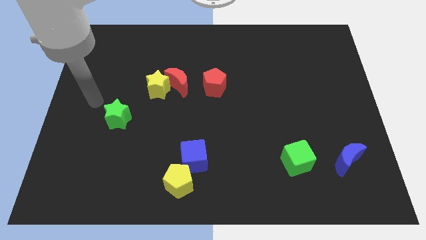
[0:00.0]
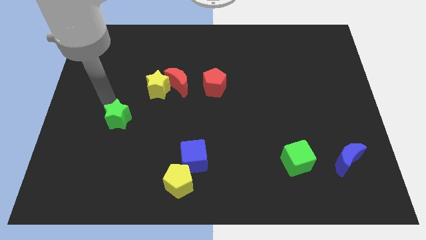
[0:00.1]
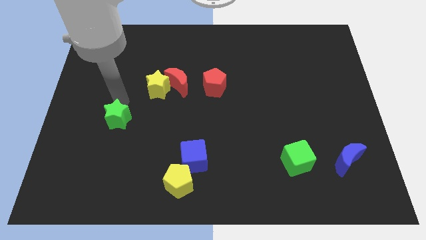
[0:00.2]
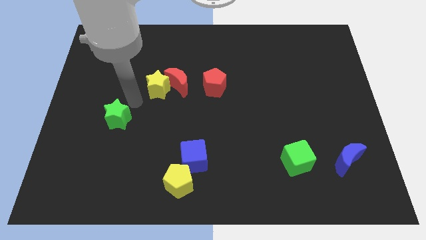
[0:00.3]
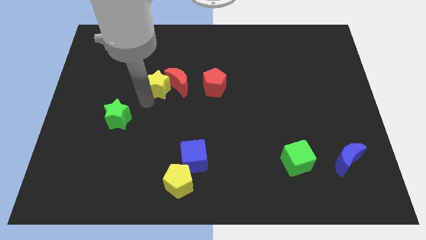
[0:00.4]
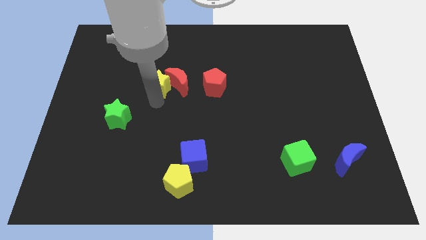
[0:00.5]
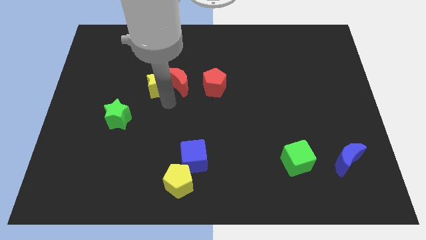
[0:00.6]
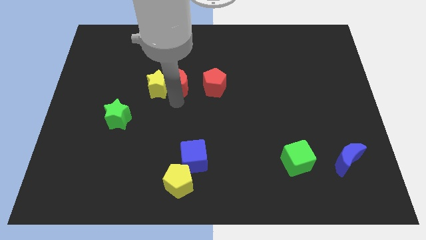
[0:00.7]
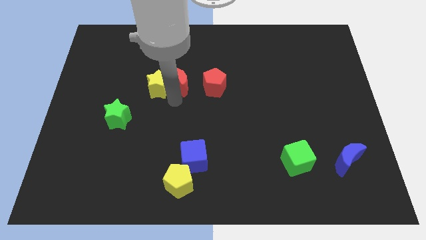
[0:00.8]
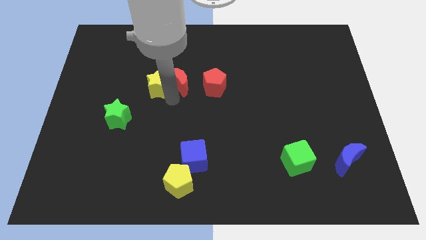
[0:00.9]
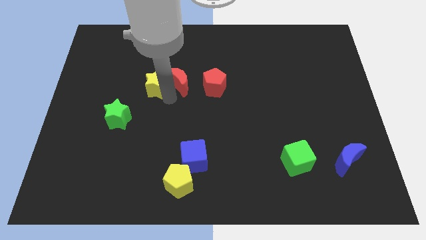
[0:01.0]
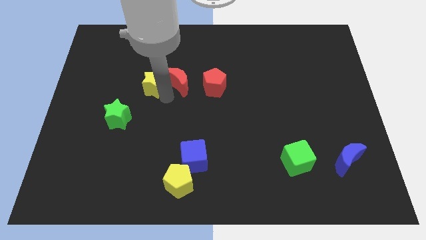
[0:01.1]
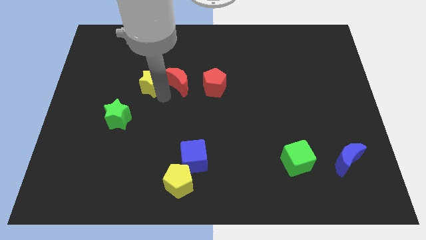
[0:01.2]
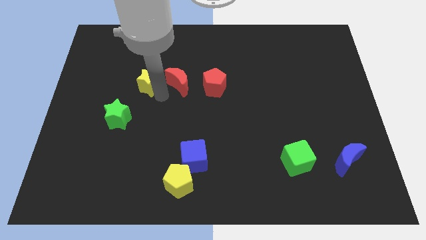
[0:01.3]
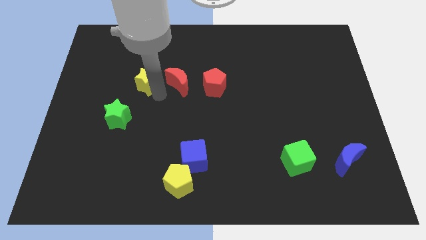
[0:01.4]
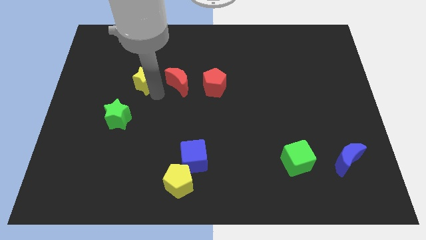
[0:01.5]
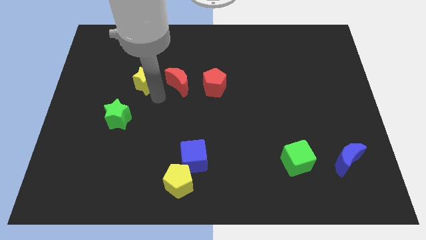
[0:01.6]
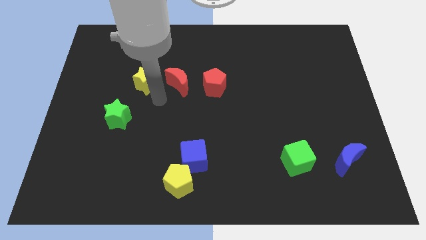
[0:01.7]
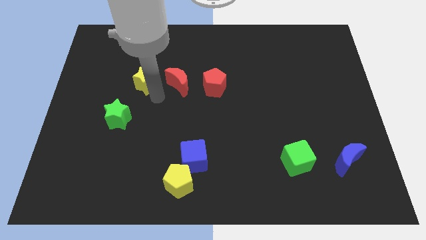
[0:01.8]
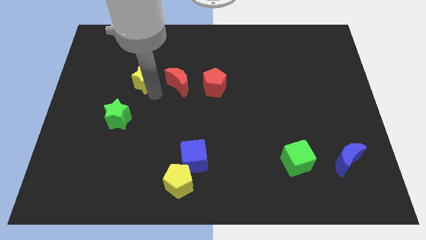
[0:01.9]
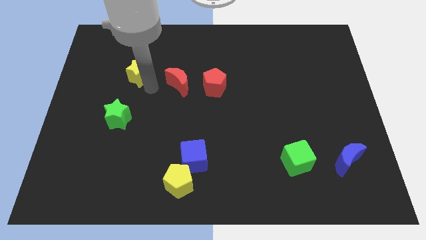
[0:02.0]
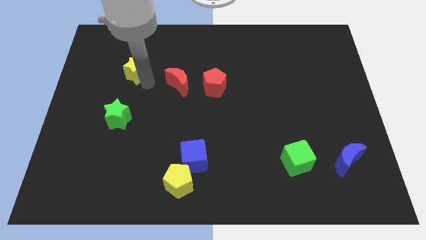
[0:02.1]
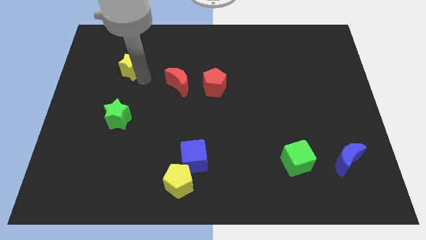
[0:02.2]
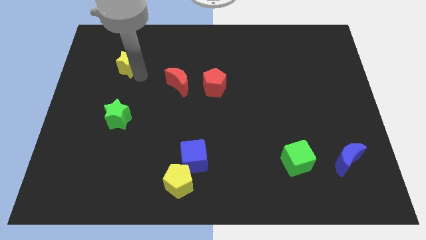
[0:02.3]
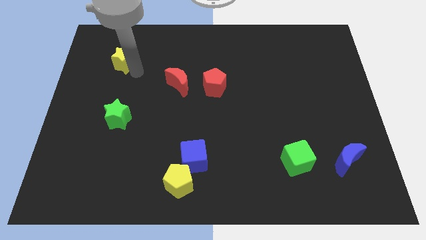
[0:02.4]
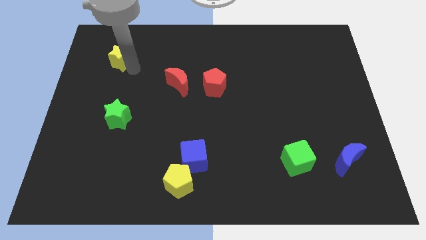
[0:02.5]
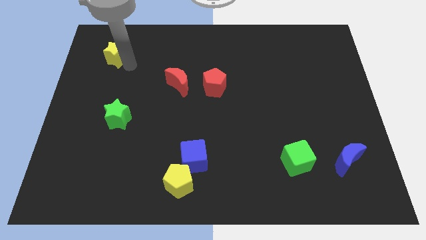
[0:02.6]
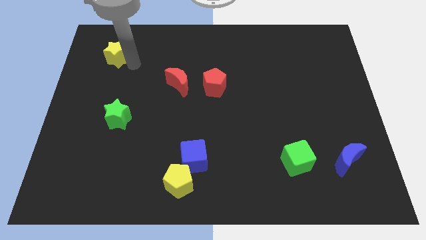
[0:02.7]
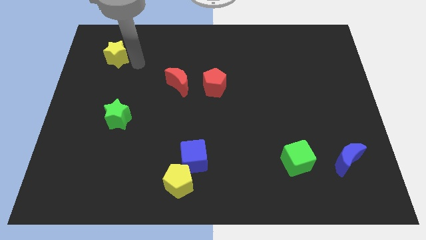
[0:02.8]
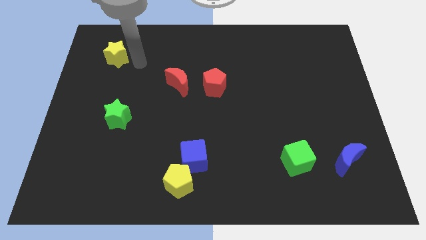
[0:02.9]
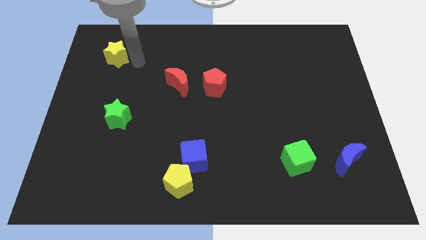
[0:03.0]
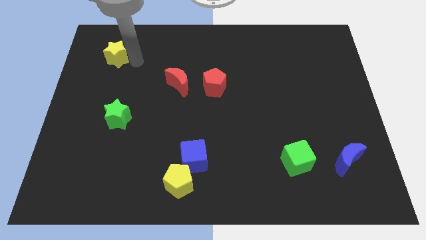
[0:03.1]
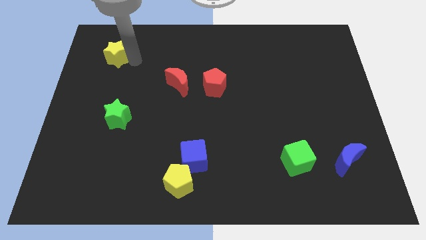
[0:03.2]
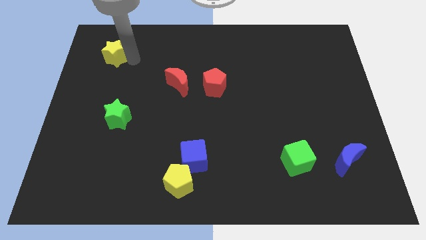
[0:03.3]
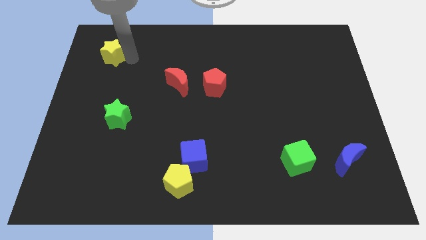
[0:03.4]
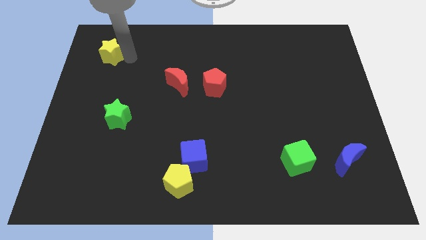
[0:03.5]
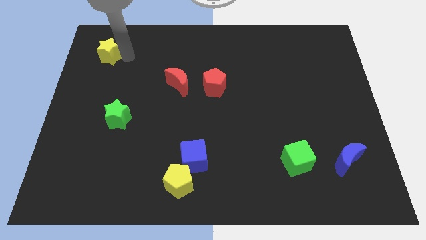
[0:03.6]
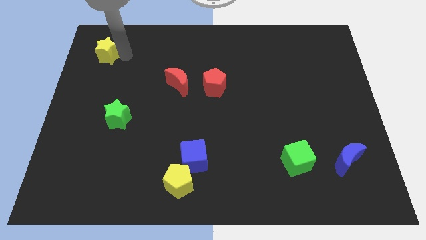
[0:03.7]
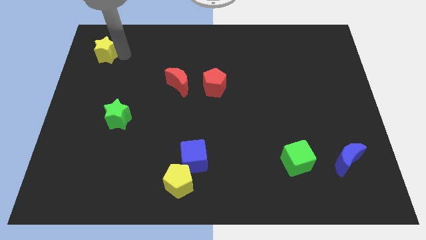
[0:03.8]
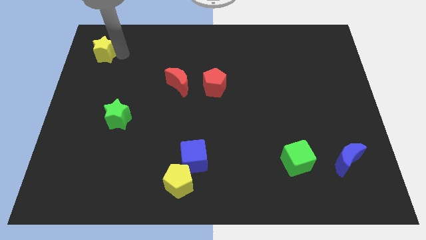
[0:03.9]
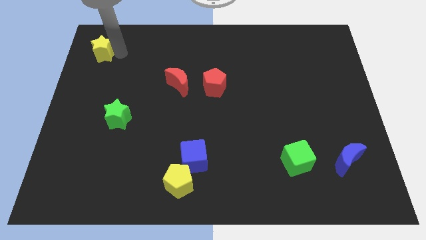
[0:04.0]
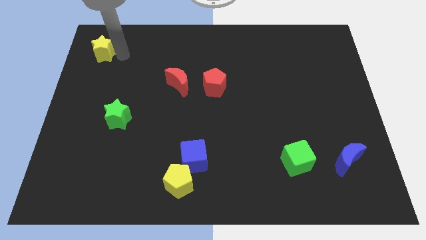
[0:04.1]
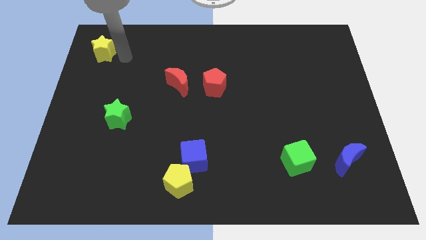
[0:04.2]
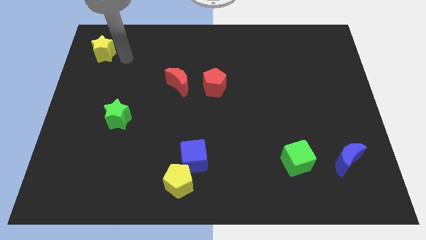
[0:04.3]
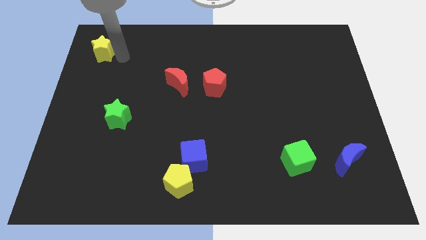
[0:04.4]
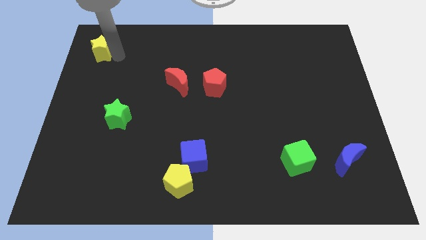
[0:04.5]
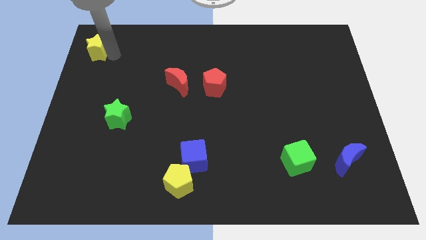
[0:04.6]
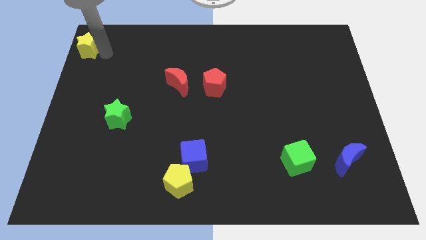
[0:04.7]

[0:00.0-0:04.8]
push the yellow star to the upper left corner

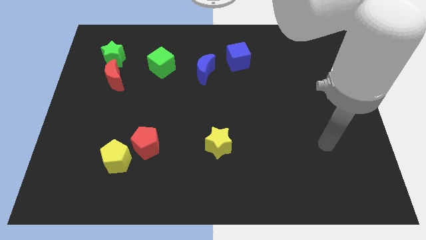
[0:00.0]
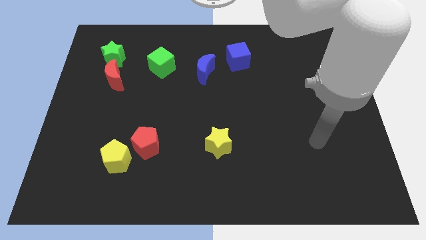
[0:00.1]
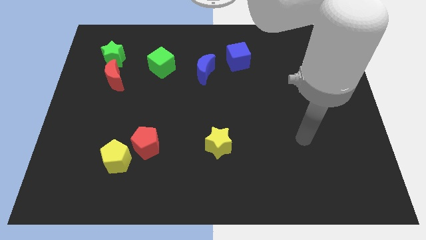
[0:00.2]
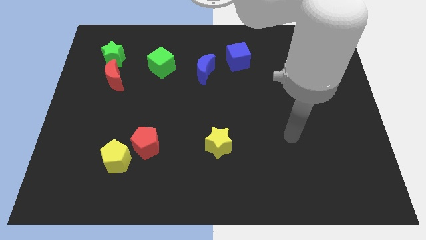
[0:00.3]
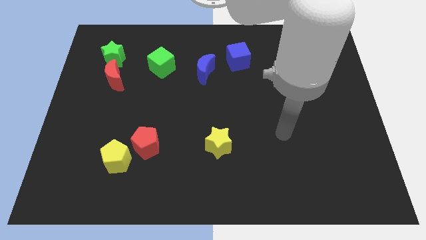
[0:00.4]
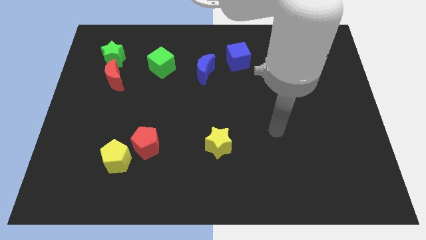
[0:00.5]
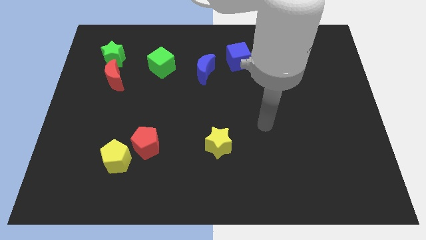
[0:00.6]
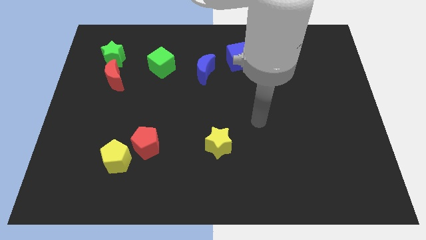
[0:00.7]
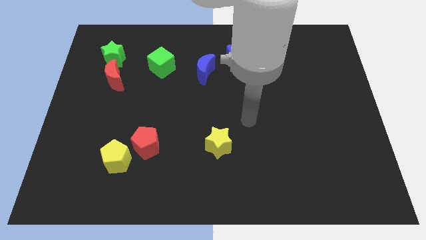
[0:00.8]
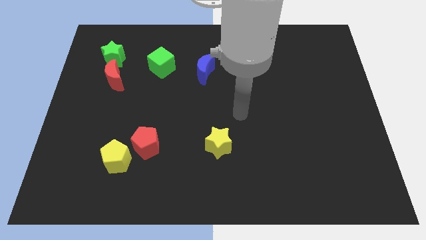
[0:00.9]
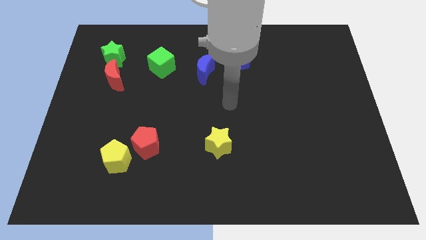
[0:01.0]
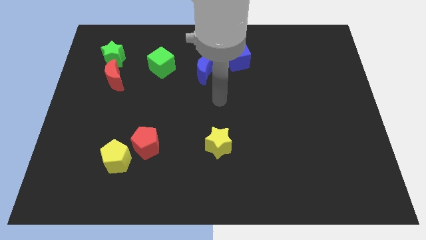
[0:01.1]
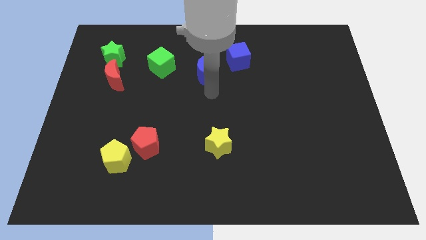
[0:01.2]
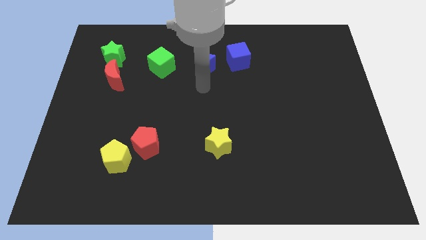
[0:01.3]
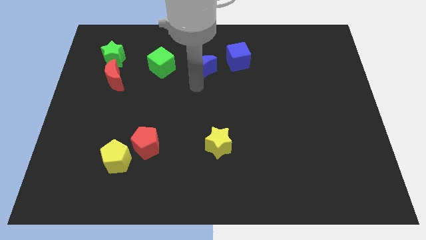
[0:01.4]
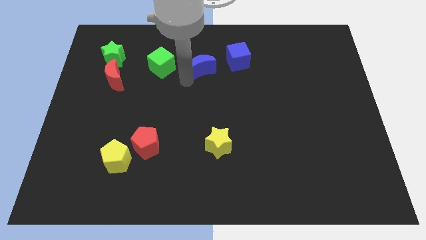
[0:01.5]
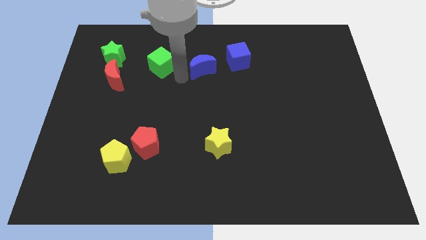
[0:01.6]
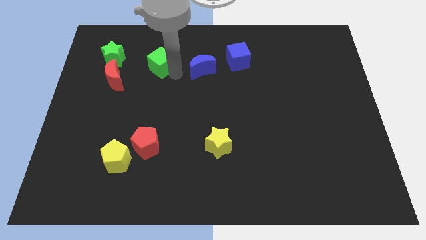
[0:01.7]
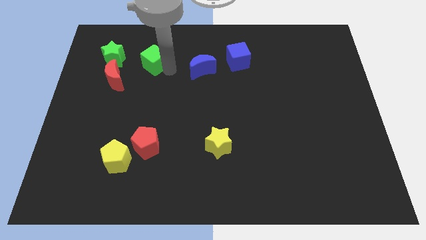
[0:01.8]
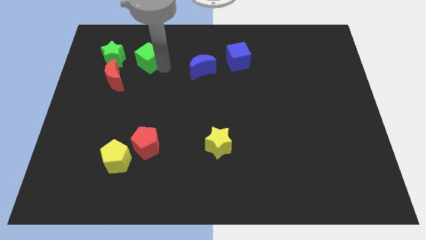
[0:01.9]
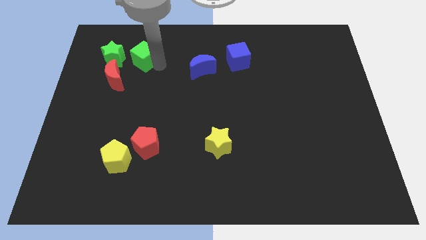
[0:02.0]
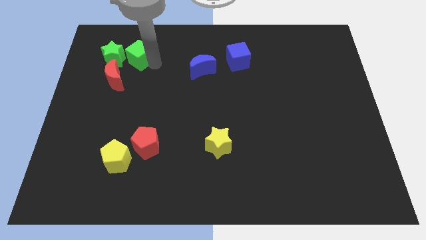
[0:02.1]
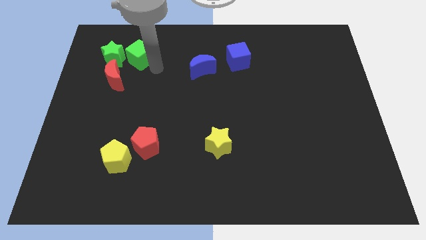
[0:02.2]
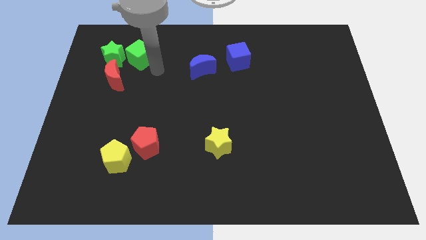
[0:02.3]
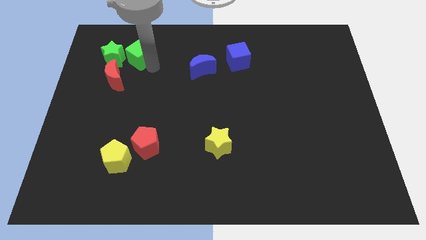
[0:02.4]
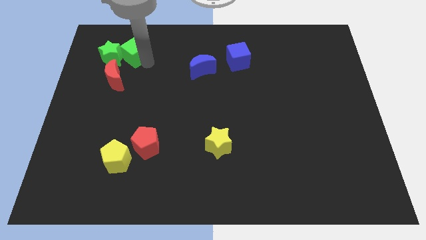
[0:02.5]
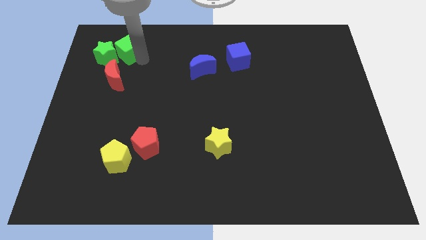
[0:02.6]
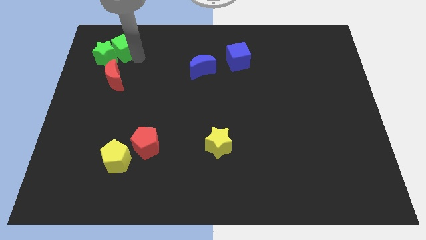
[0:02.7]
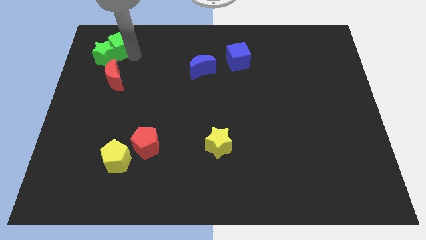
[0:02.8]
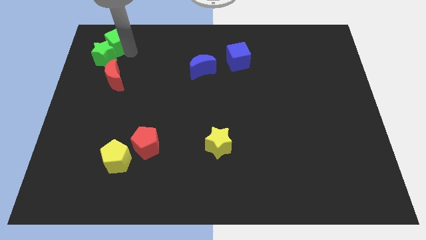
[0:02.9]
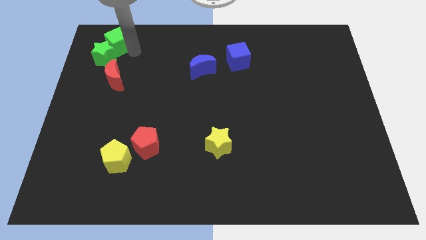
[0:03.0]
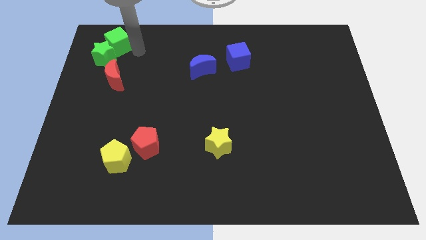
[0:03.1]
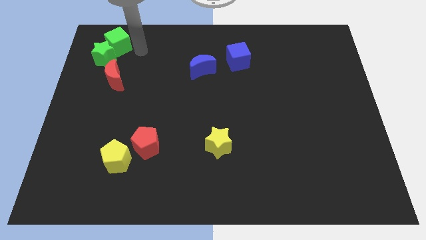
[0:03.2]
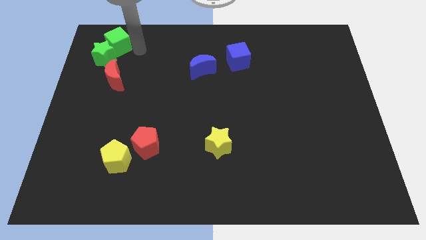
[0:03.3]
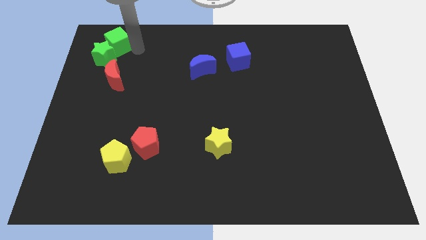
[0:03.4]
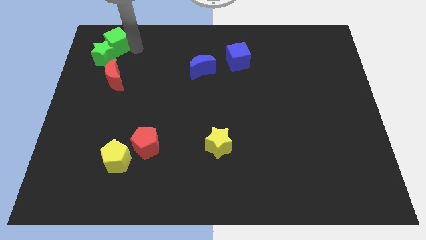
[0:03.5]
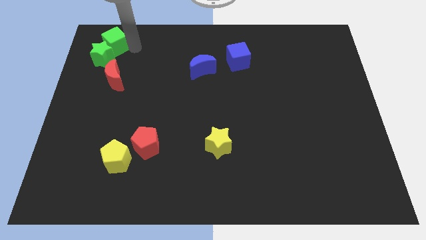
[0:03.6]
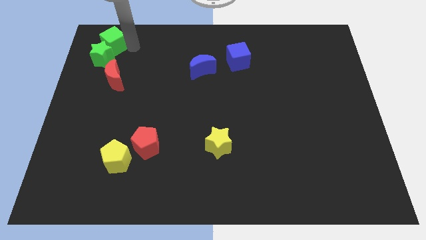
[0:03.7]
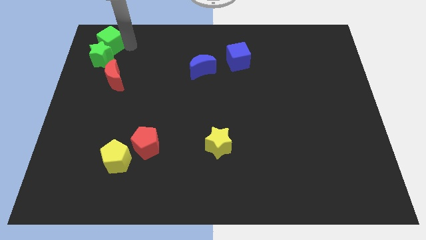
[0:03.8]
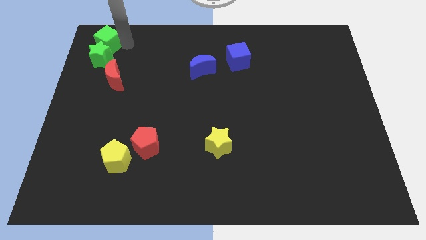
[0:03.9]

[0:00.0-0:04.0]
push the green cube to the top left corner
